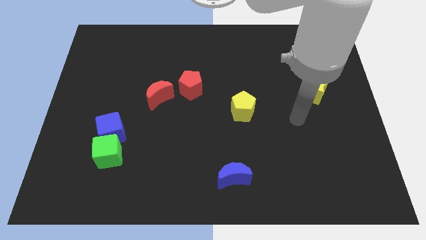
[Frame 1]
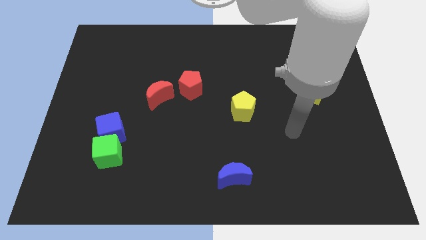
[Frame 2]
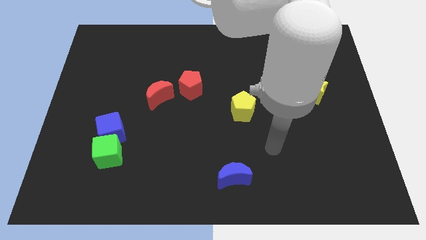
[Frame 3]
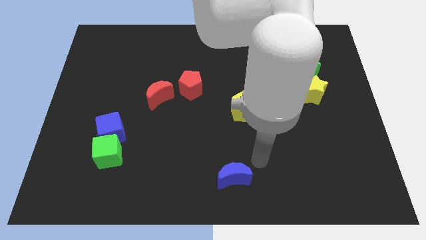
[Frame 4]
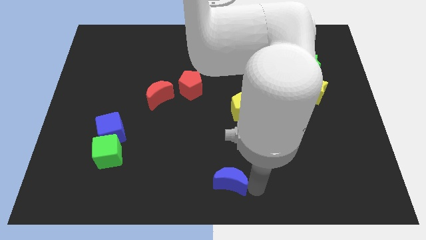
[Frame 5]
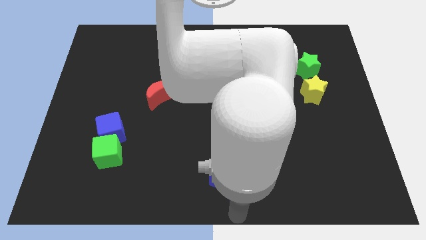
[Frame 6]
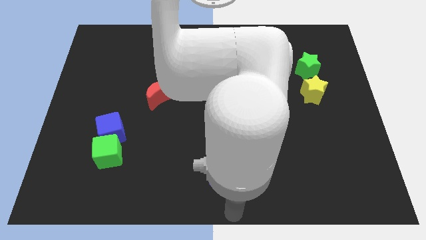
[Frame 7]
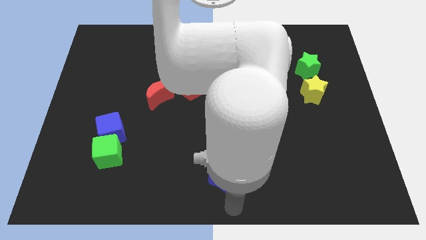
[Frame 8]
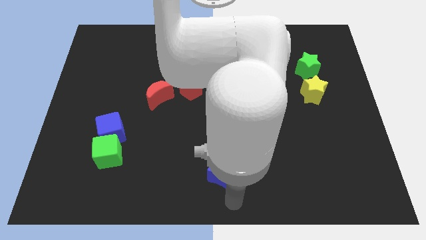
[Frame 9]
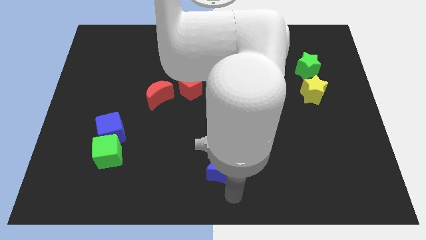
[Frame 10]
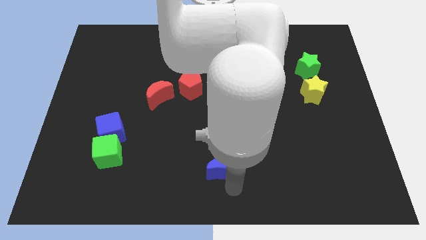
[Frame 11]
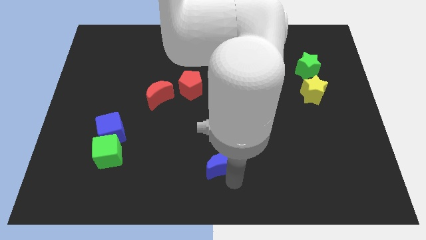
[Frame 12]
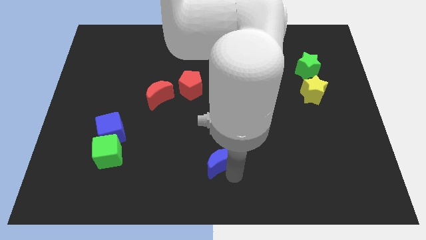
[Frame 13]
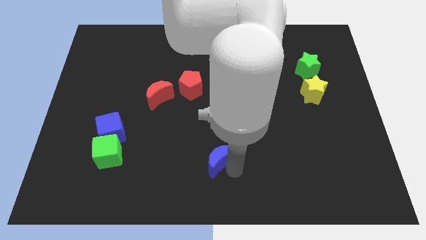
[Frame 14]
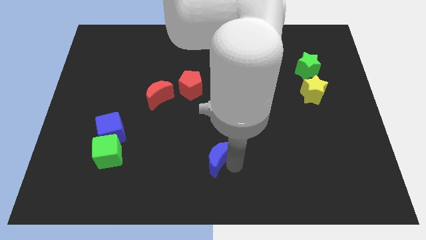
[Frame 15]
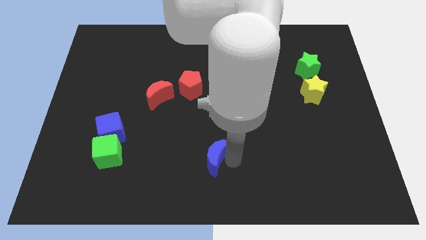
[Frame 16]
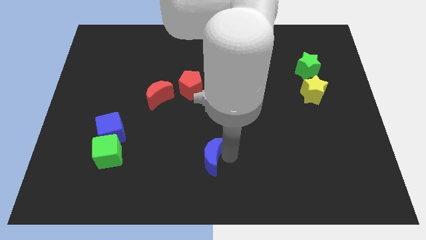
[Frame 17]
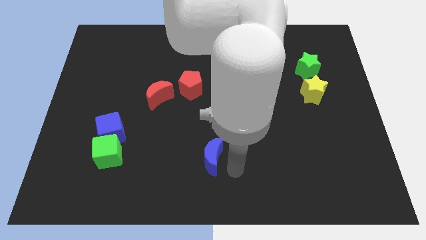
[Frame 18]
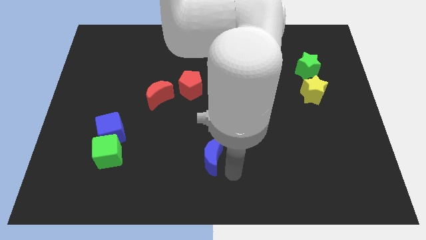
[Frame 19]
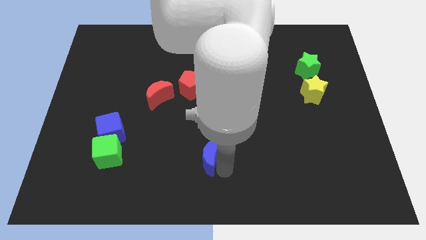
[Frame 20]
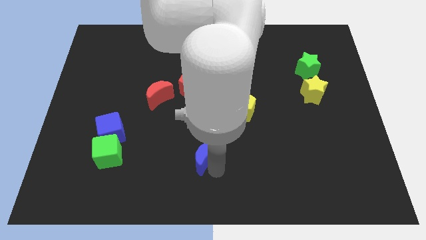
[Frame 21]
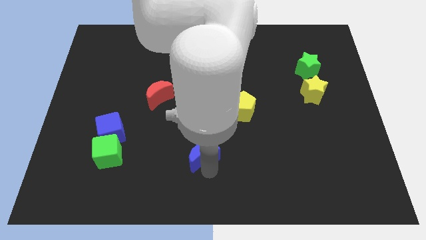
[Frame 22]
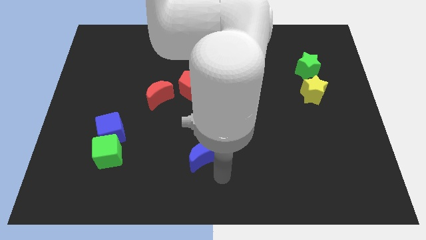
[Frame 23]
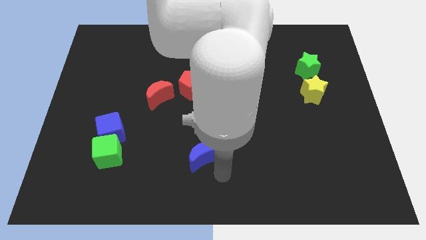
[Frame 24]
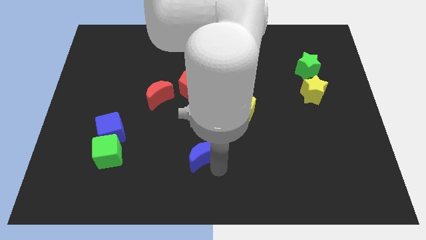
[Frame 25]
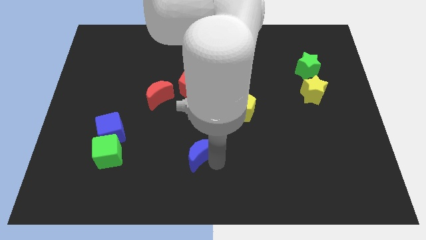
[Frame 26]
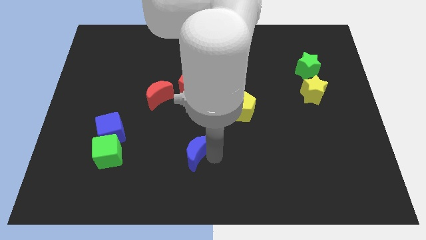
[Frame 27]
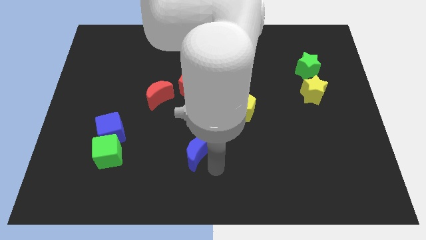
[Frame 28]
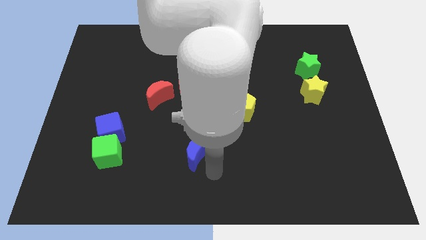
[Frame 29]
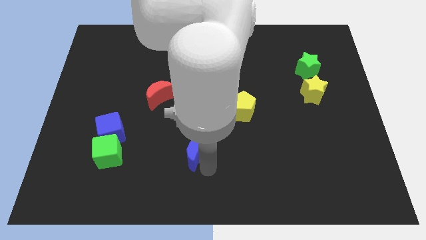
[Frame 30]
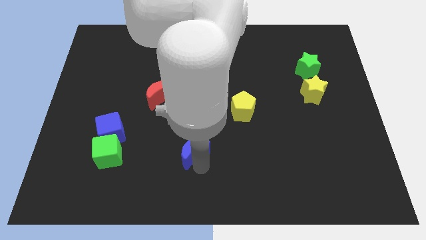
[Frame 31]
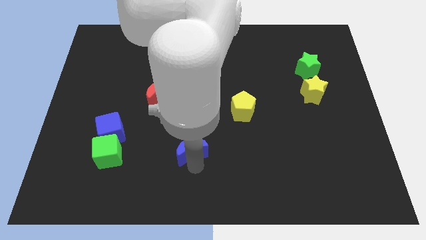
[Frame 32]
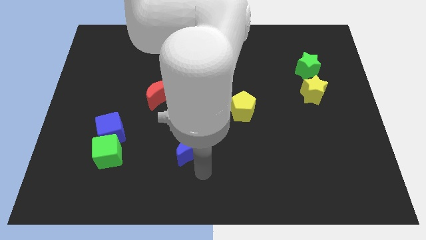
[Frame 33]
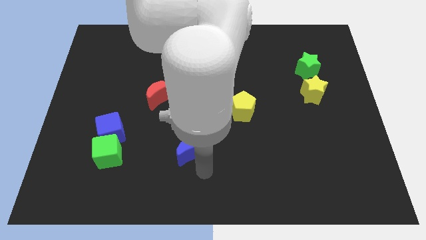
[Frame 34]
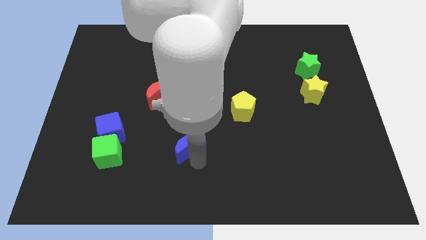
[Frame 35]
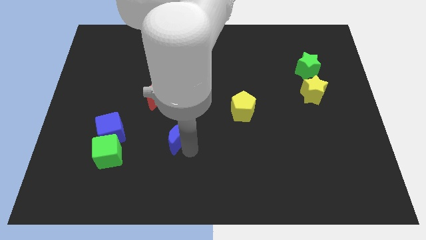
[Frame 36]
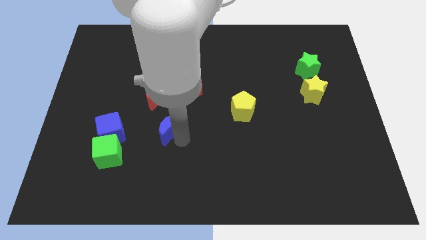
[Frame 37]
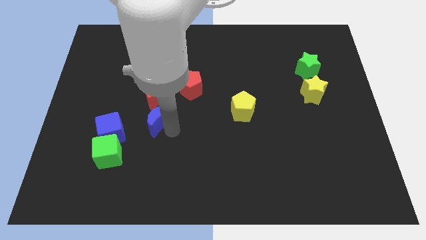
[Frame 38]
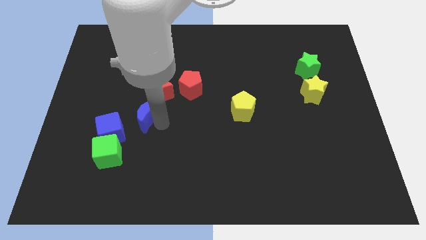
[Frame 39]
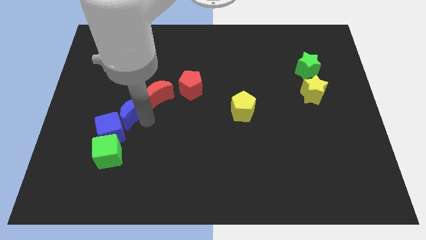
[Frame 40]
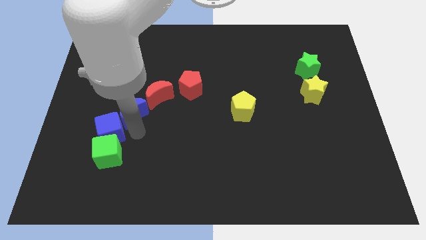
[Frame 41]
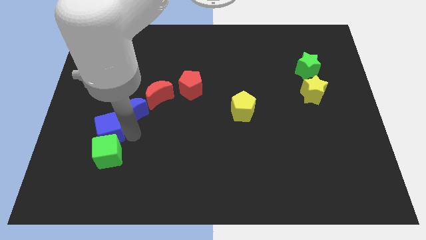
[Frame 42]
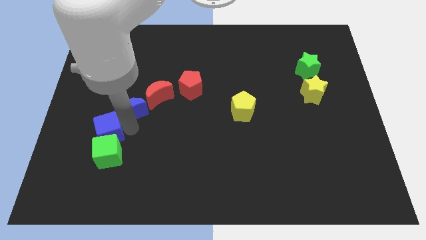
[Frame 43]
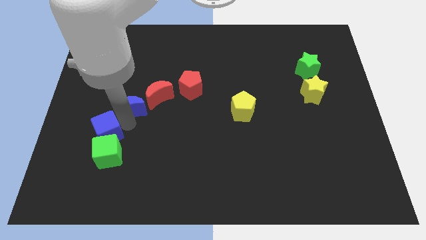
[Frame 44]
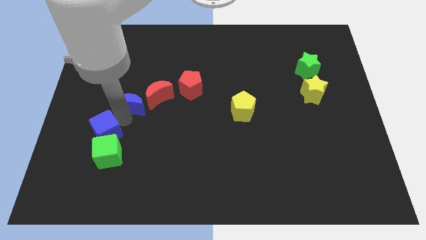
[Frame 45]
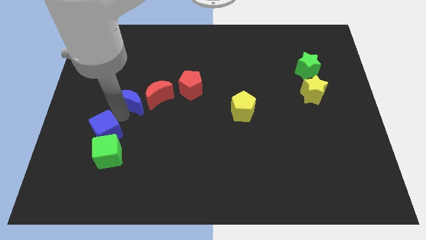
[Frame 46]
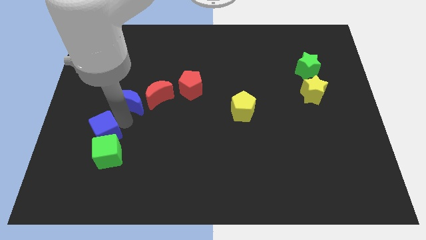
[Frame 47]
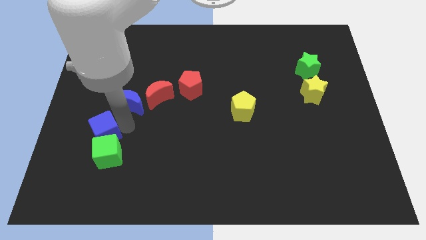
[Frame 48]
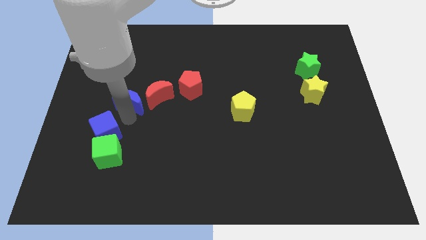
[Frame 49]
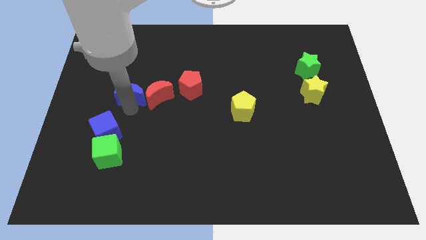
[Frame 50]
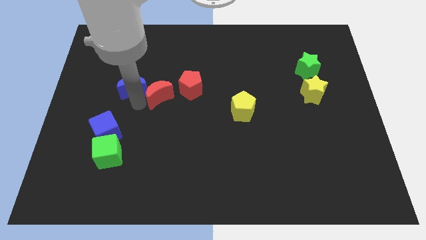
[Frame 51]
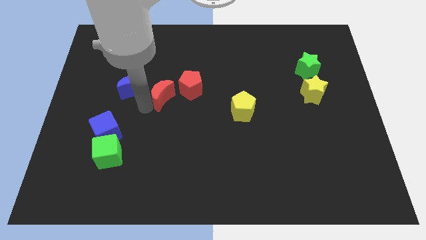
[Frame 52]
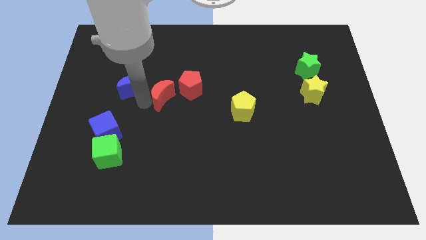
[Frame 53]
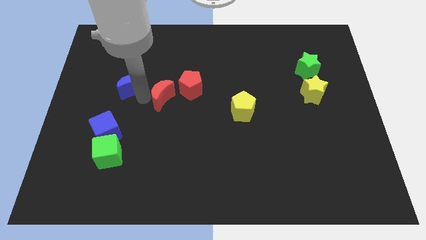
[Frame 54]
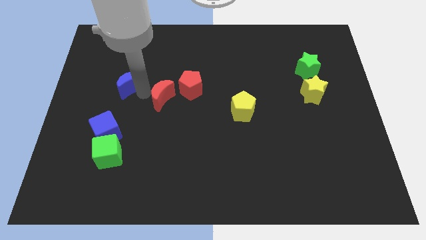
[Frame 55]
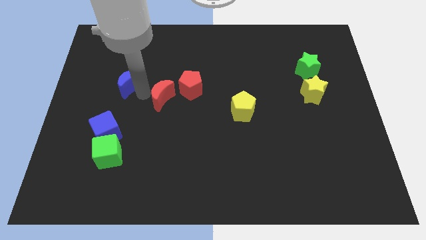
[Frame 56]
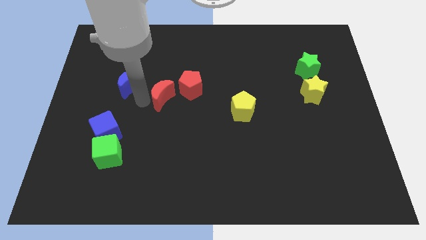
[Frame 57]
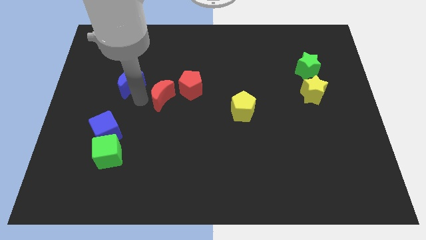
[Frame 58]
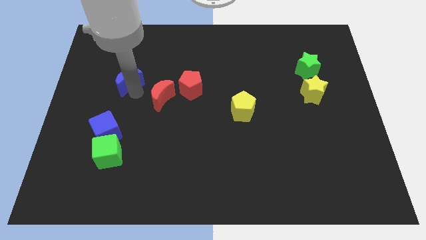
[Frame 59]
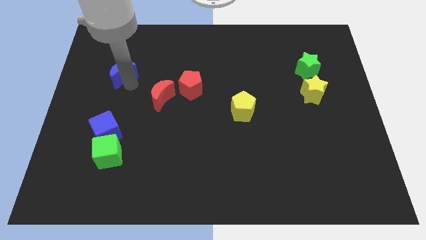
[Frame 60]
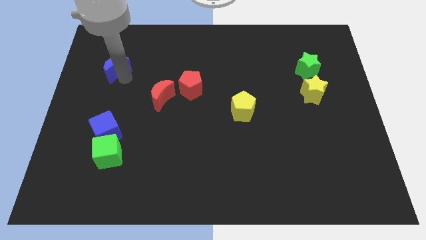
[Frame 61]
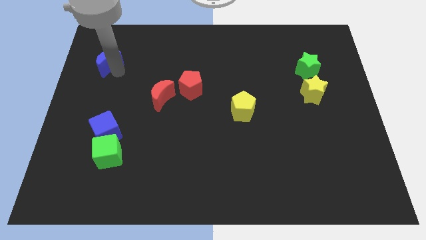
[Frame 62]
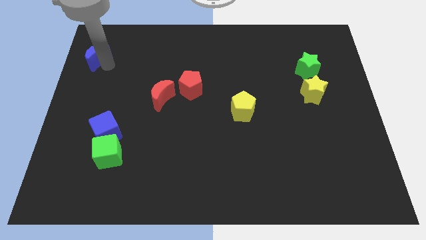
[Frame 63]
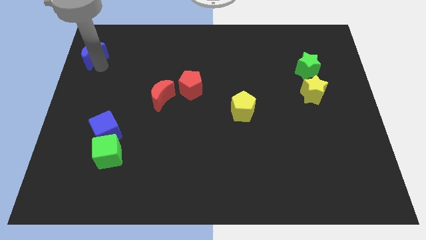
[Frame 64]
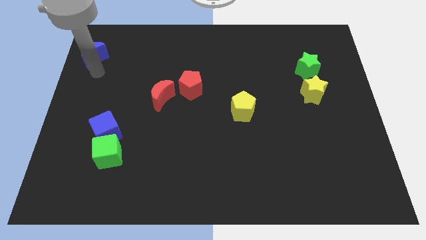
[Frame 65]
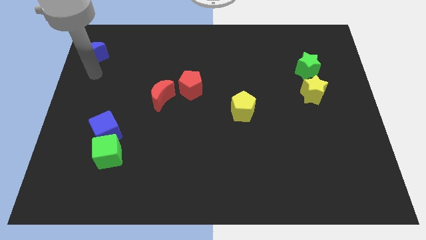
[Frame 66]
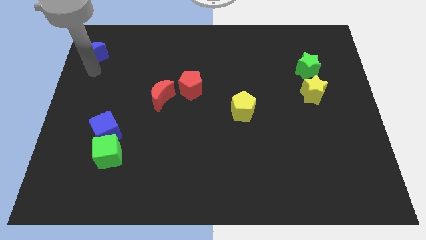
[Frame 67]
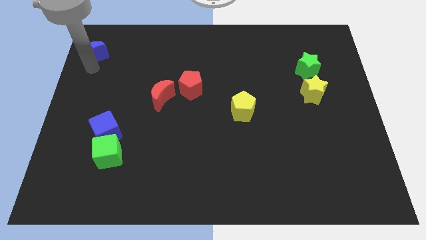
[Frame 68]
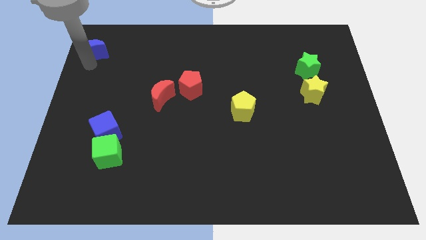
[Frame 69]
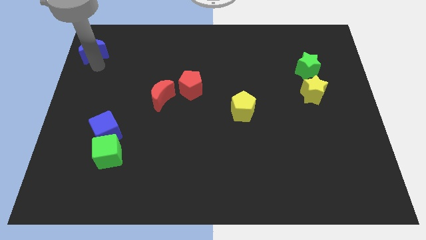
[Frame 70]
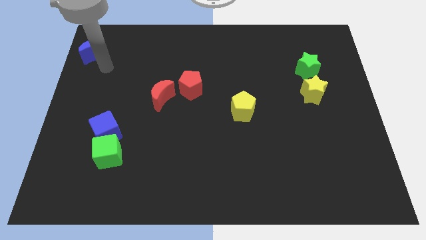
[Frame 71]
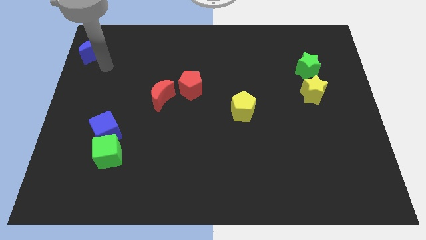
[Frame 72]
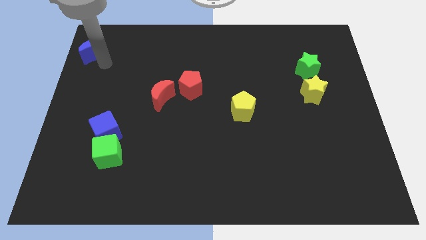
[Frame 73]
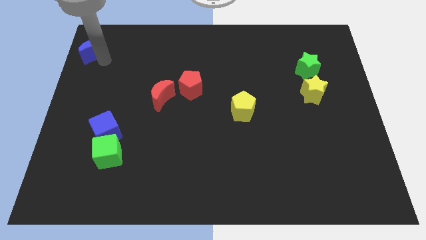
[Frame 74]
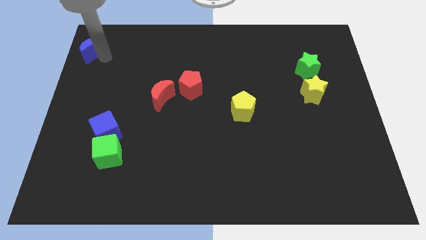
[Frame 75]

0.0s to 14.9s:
push the blue moon to the upper left corner
